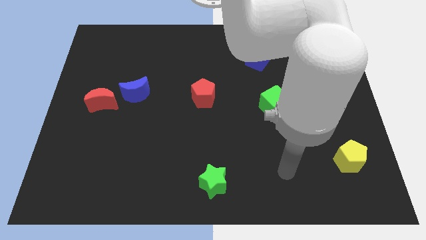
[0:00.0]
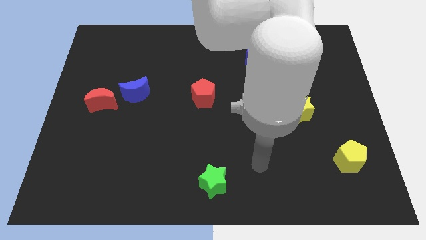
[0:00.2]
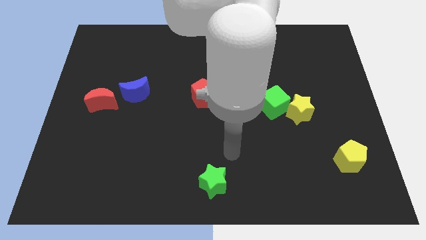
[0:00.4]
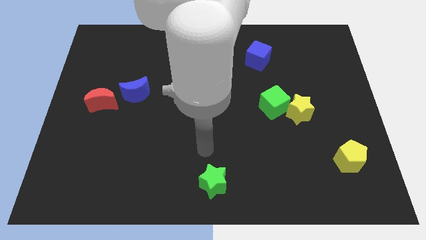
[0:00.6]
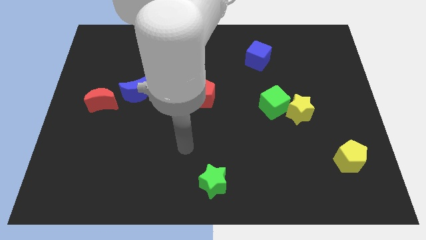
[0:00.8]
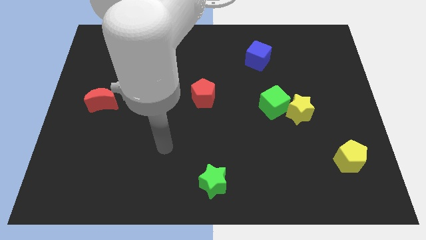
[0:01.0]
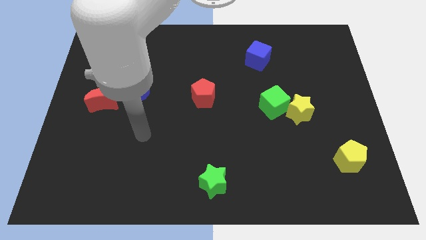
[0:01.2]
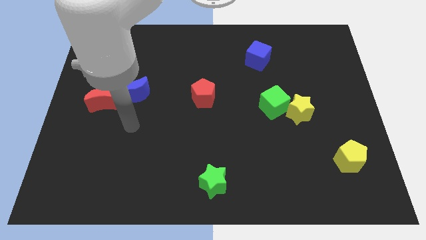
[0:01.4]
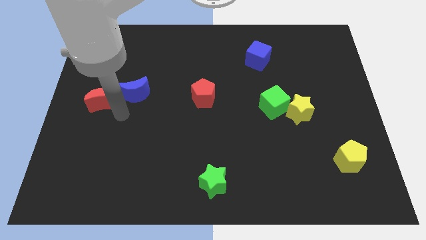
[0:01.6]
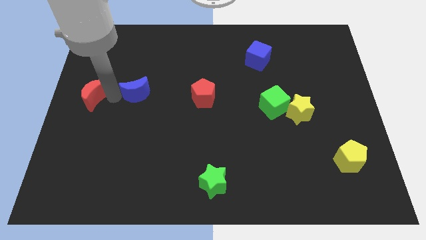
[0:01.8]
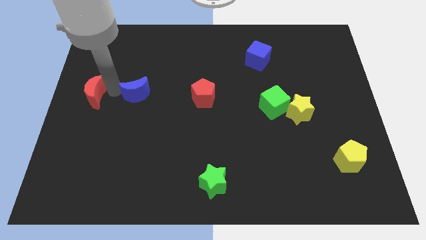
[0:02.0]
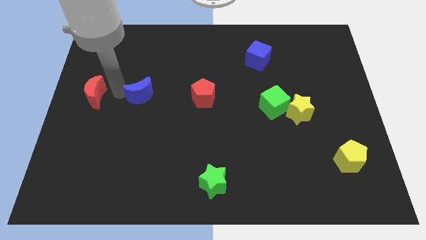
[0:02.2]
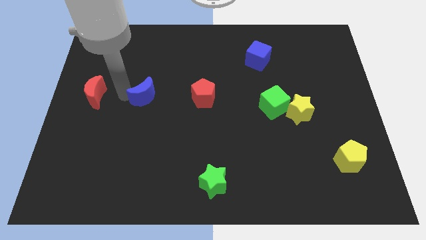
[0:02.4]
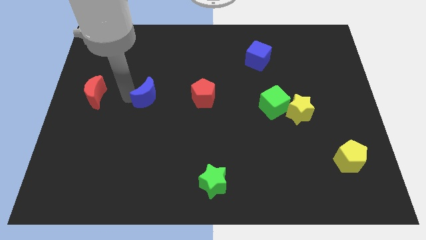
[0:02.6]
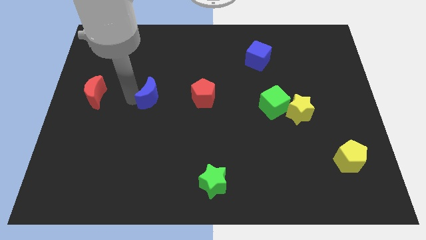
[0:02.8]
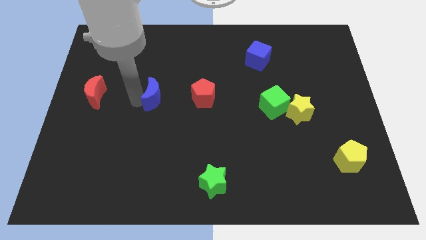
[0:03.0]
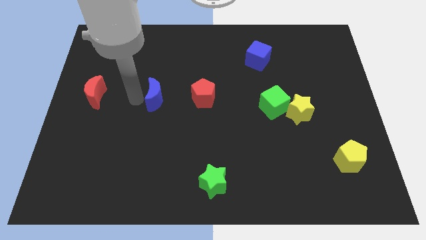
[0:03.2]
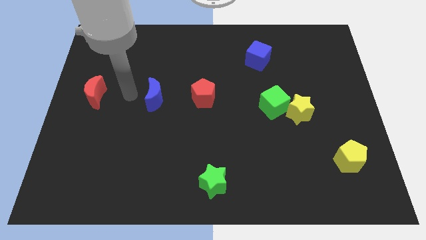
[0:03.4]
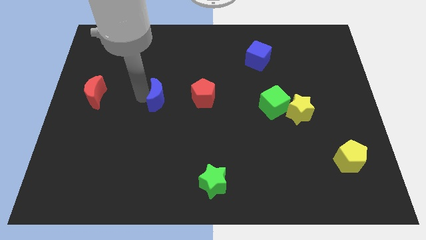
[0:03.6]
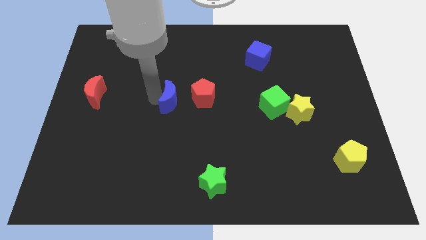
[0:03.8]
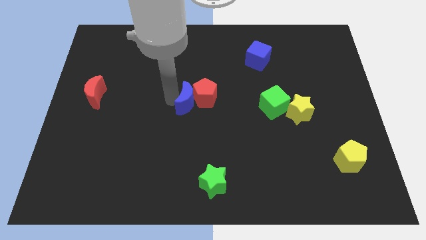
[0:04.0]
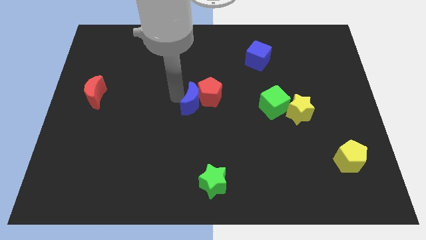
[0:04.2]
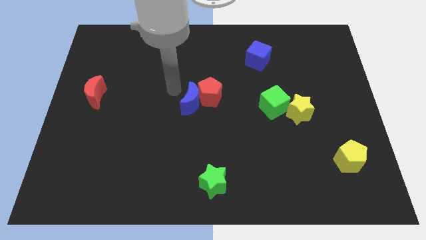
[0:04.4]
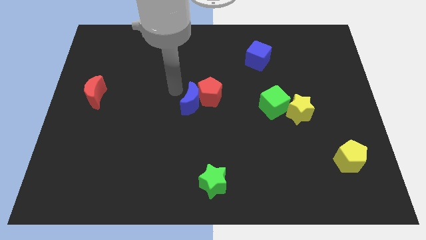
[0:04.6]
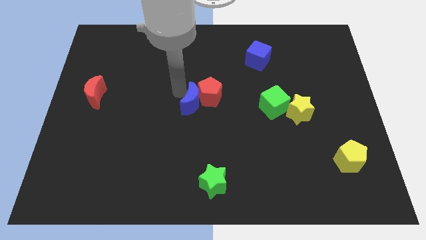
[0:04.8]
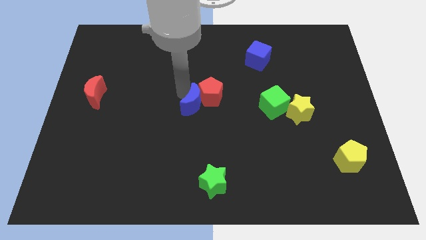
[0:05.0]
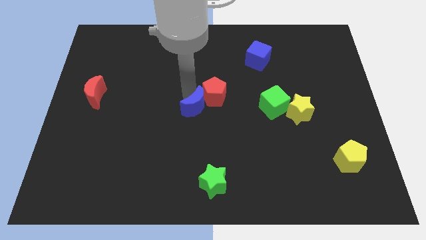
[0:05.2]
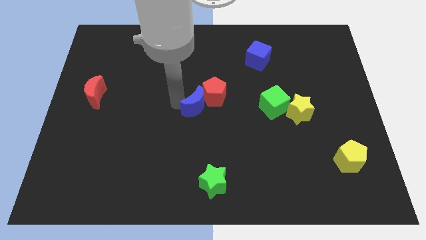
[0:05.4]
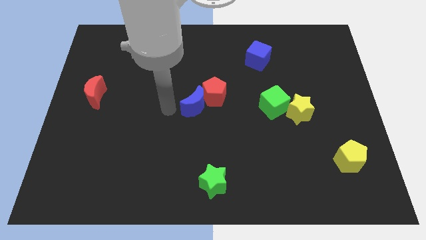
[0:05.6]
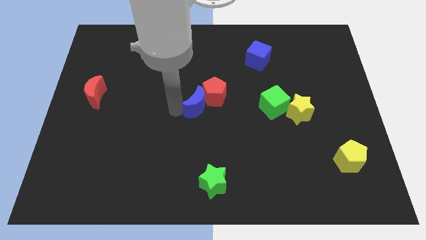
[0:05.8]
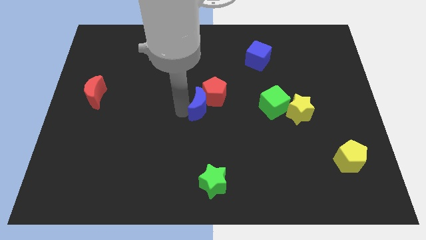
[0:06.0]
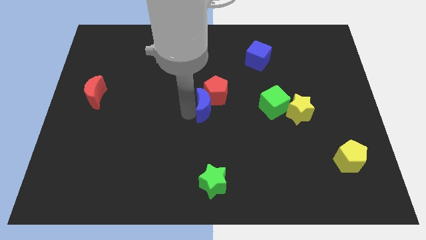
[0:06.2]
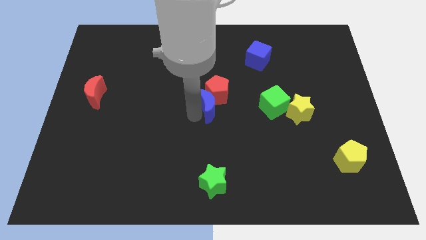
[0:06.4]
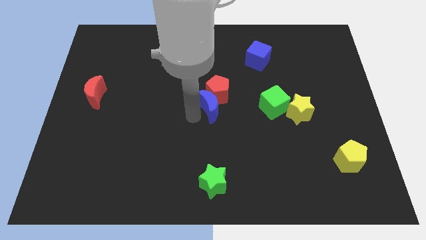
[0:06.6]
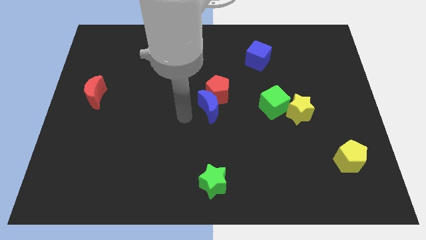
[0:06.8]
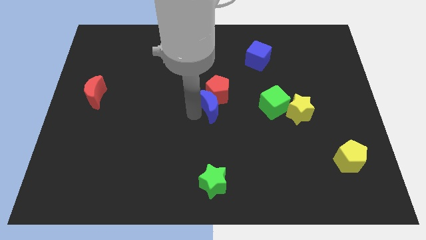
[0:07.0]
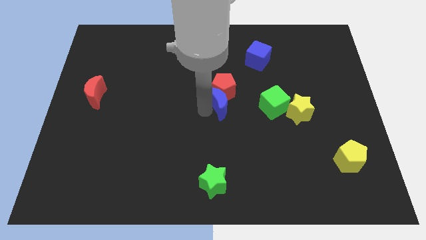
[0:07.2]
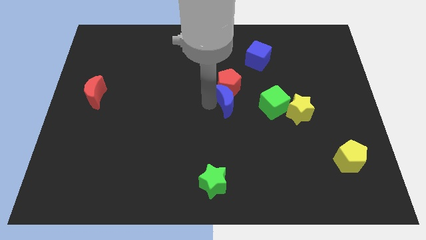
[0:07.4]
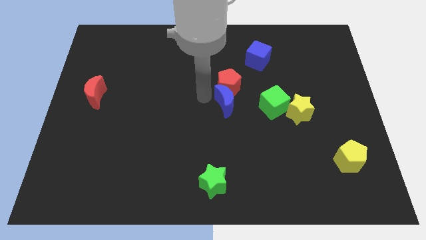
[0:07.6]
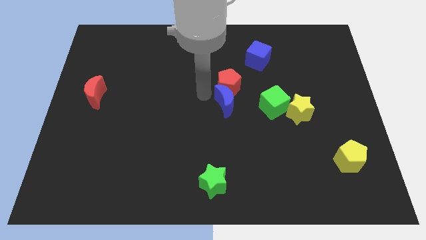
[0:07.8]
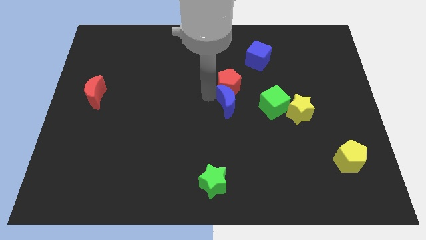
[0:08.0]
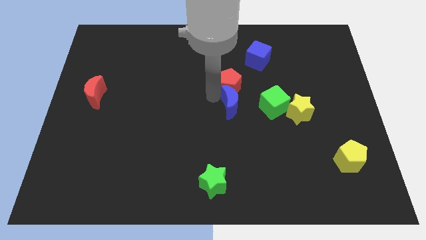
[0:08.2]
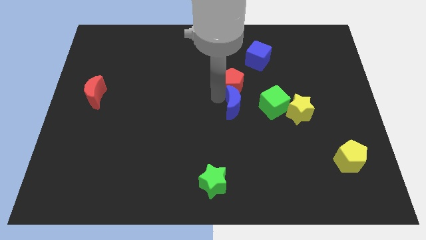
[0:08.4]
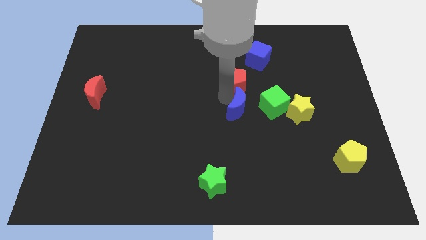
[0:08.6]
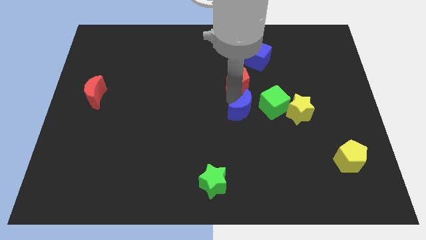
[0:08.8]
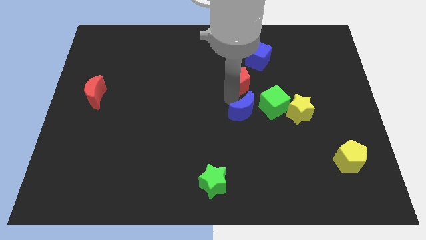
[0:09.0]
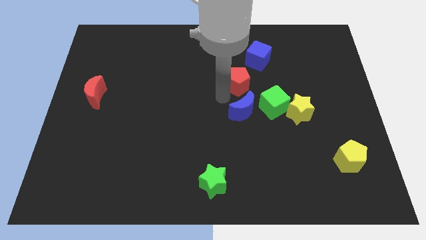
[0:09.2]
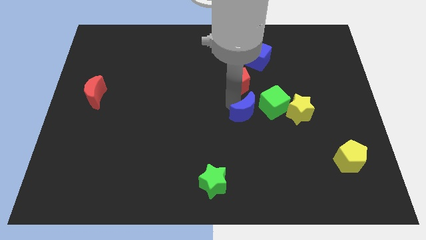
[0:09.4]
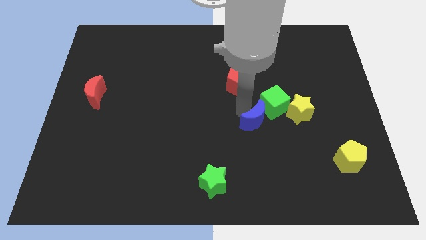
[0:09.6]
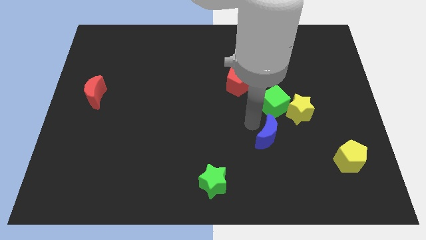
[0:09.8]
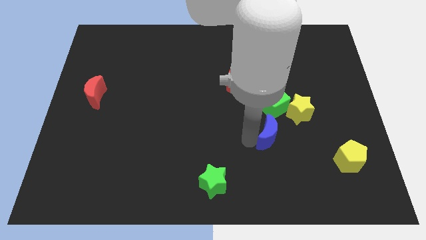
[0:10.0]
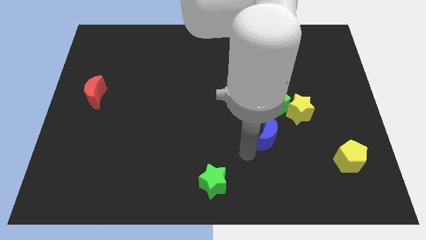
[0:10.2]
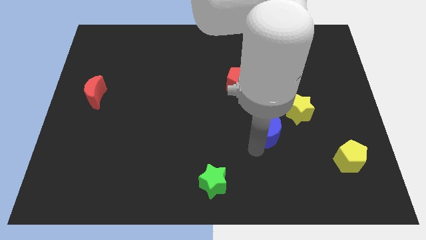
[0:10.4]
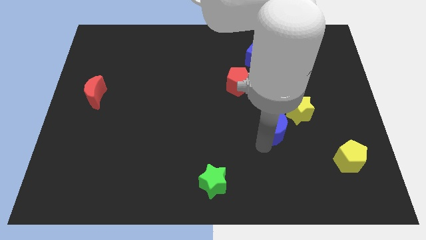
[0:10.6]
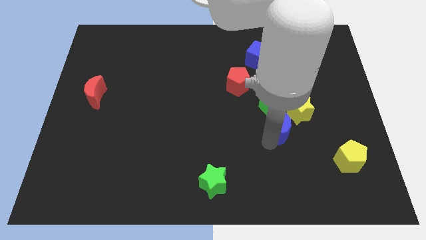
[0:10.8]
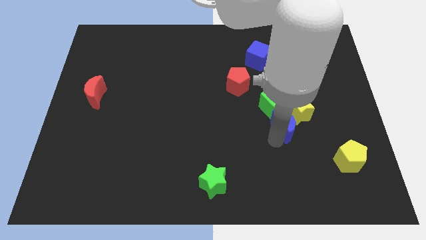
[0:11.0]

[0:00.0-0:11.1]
slide the blue moon next to the yellow star

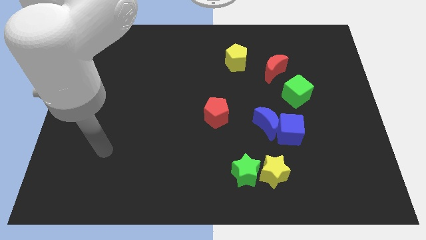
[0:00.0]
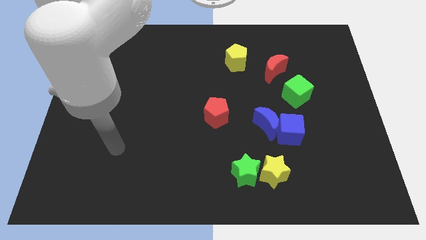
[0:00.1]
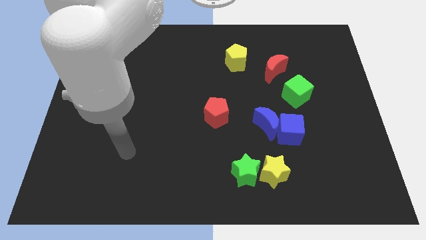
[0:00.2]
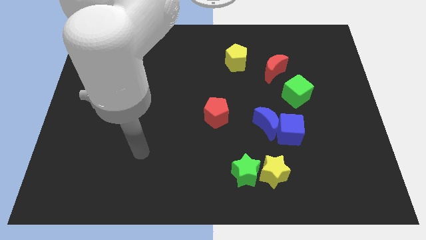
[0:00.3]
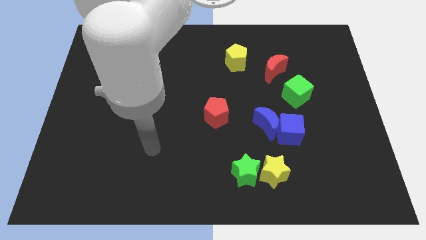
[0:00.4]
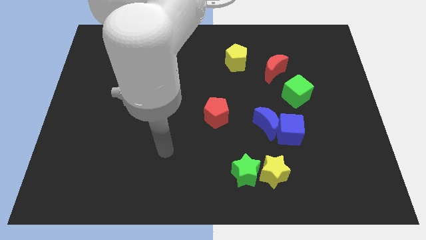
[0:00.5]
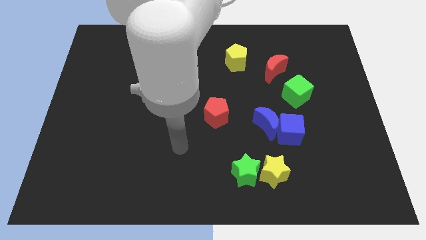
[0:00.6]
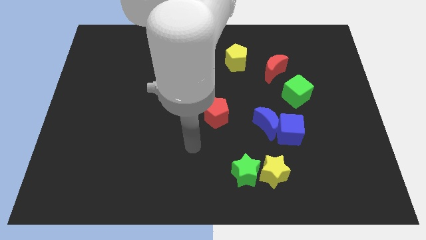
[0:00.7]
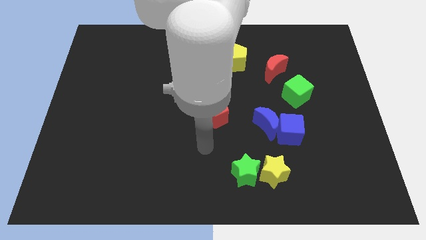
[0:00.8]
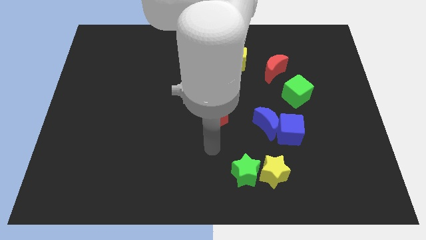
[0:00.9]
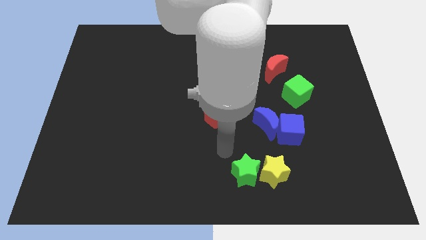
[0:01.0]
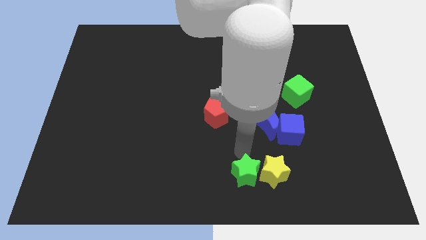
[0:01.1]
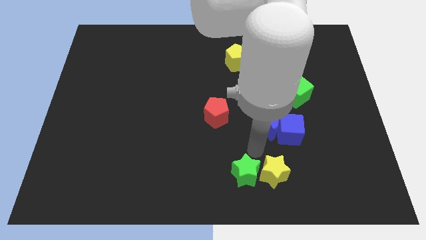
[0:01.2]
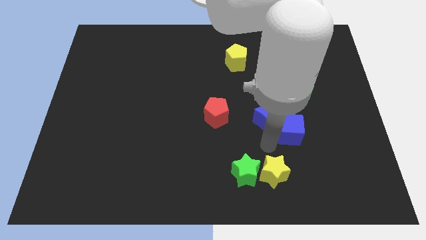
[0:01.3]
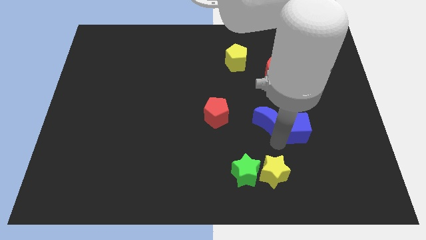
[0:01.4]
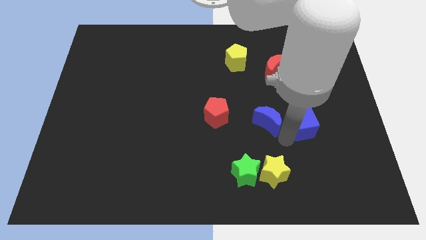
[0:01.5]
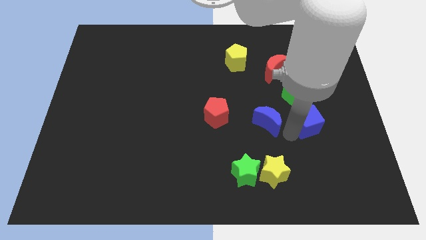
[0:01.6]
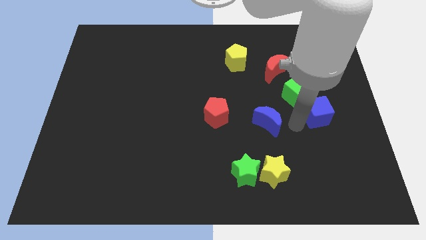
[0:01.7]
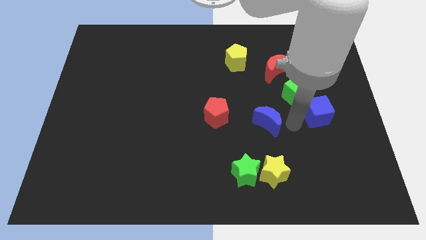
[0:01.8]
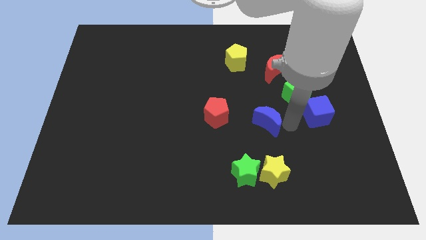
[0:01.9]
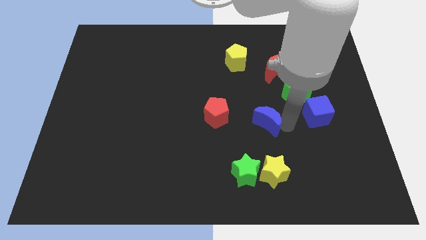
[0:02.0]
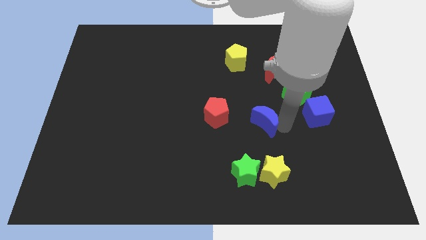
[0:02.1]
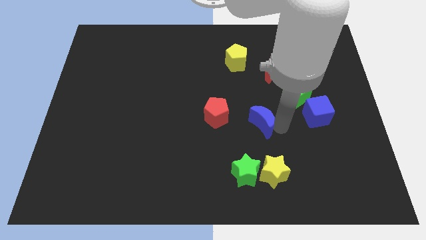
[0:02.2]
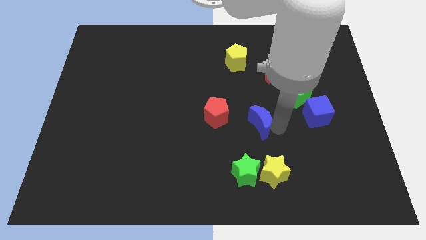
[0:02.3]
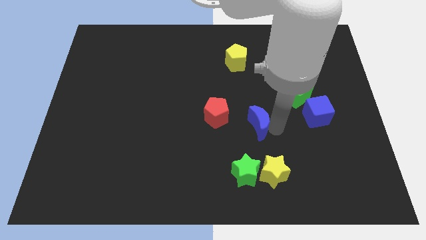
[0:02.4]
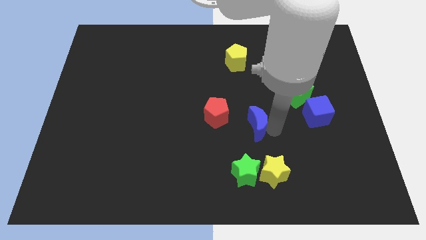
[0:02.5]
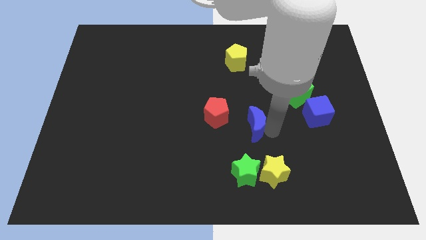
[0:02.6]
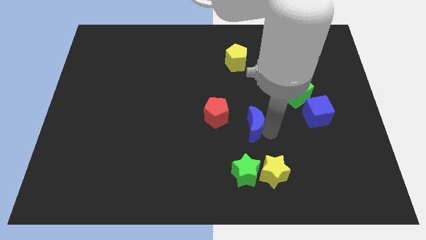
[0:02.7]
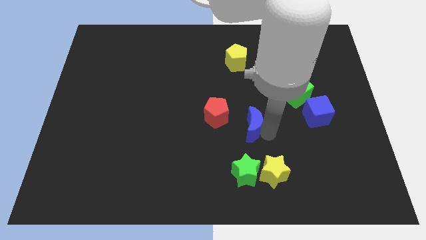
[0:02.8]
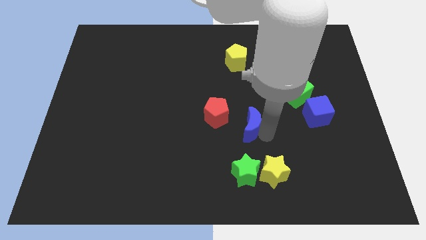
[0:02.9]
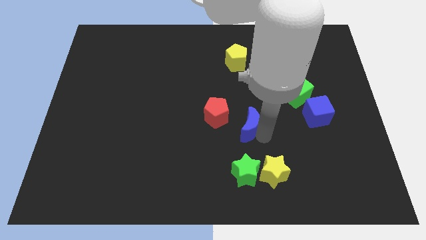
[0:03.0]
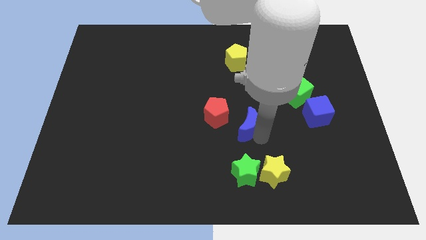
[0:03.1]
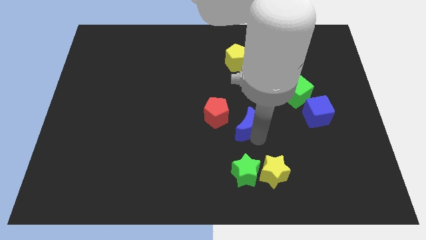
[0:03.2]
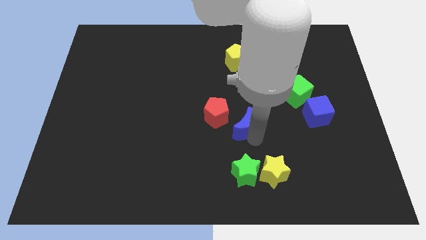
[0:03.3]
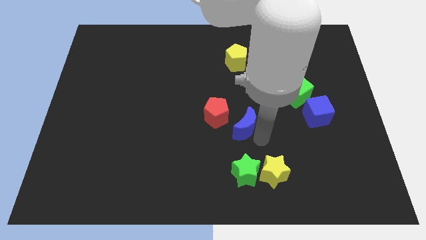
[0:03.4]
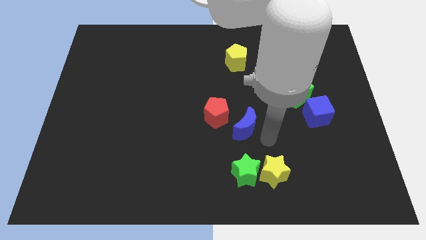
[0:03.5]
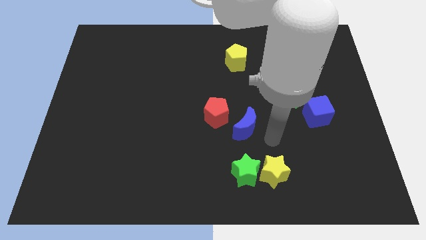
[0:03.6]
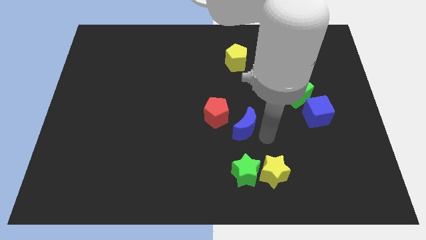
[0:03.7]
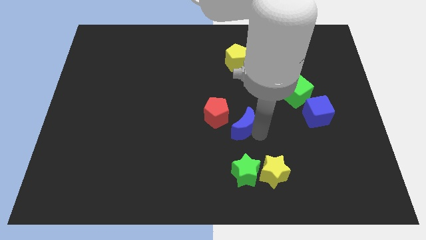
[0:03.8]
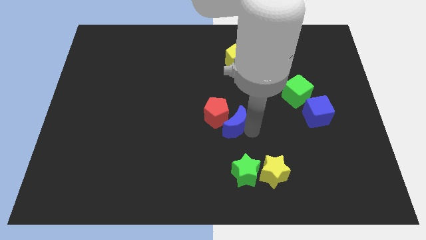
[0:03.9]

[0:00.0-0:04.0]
push the blue moon to the red pentagon
